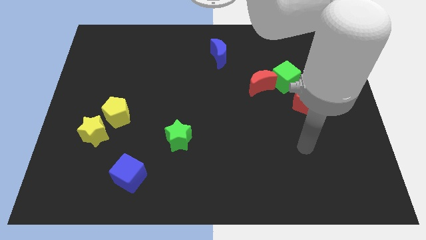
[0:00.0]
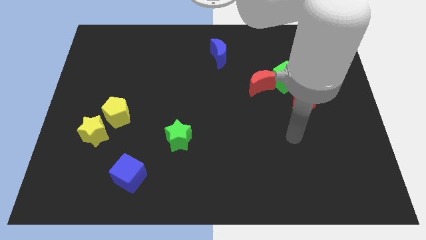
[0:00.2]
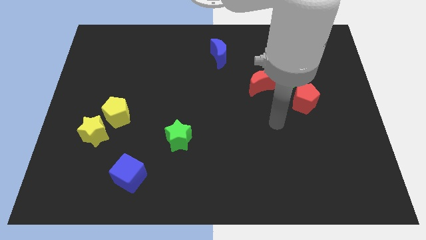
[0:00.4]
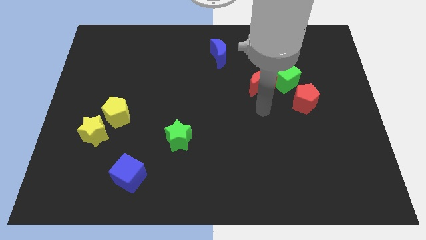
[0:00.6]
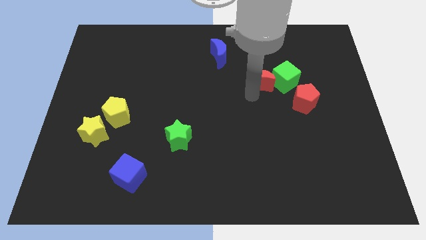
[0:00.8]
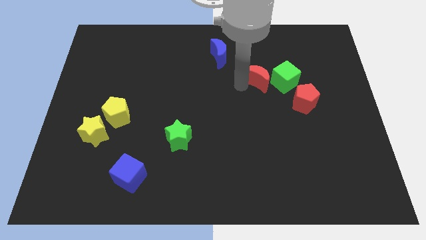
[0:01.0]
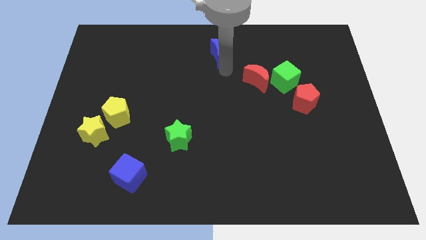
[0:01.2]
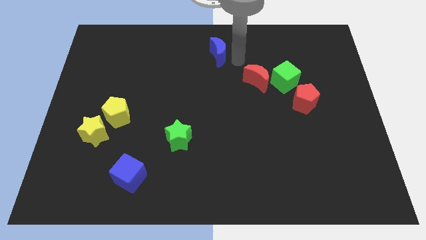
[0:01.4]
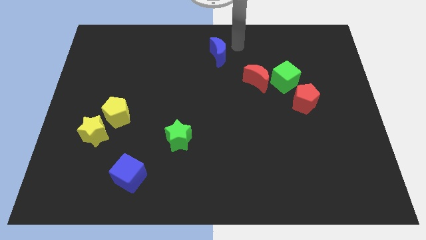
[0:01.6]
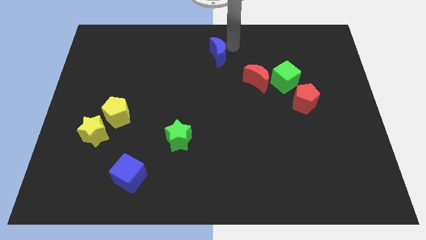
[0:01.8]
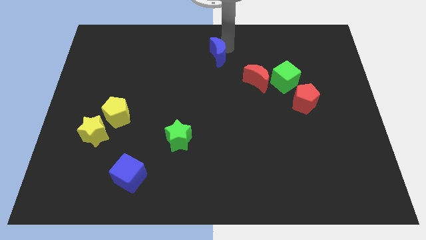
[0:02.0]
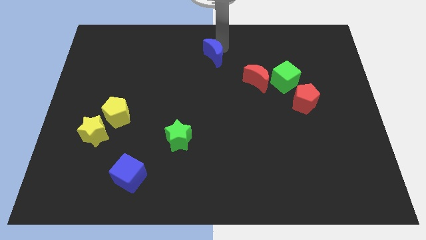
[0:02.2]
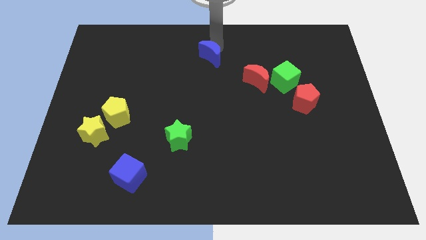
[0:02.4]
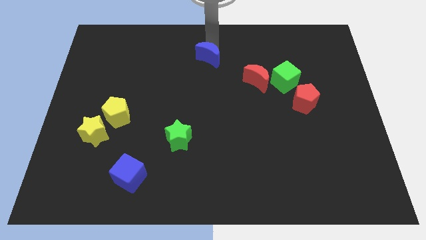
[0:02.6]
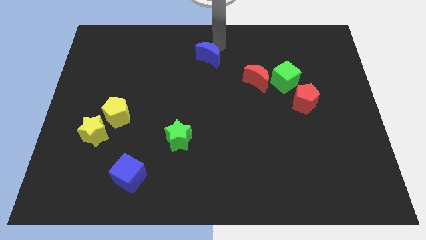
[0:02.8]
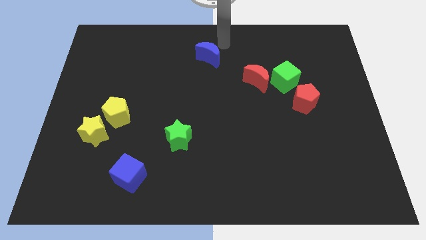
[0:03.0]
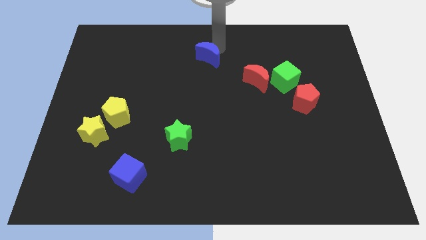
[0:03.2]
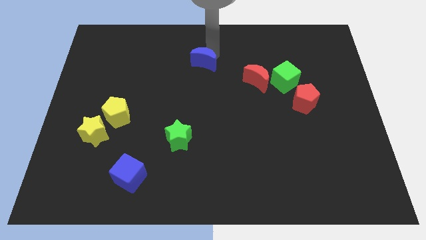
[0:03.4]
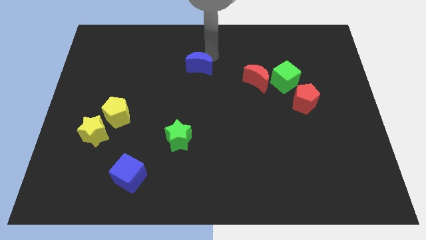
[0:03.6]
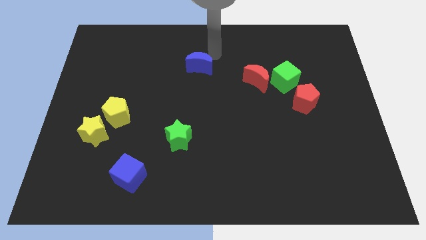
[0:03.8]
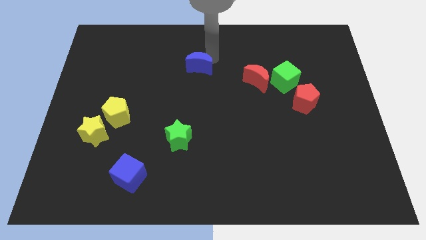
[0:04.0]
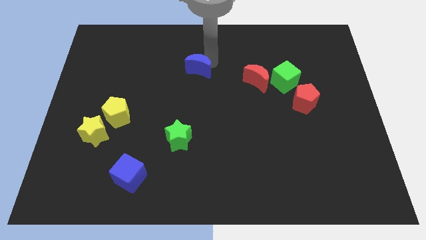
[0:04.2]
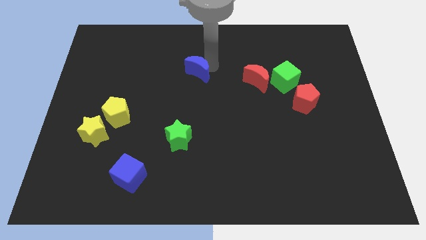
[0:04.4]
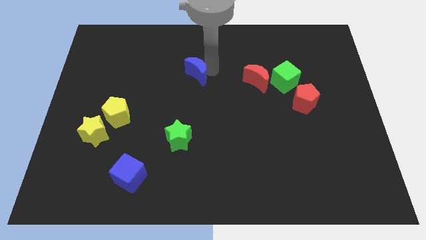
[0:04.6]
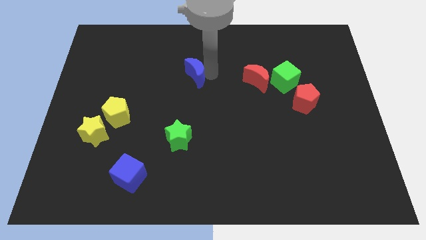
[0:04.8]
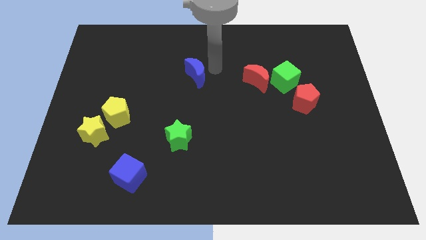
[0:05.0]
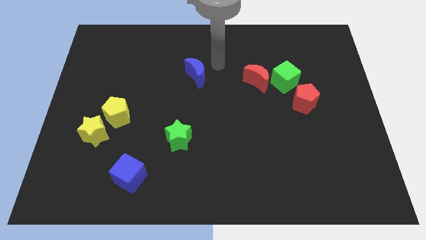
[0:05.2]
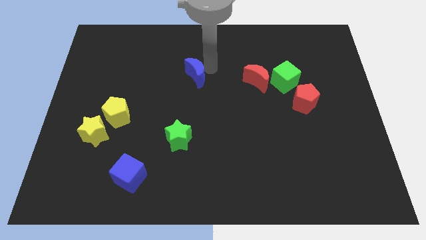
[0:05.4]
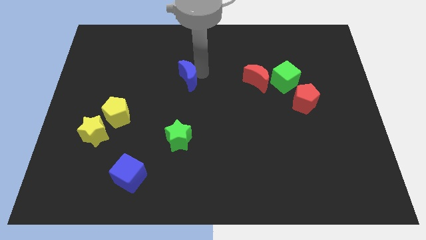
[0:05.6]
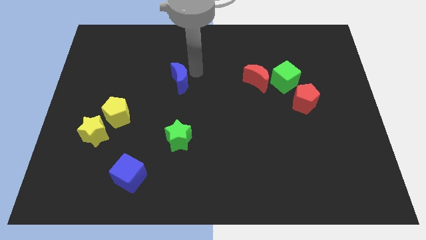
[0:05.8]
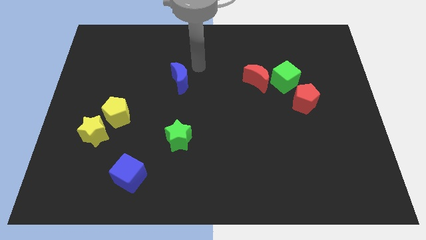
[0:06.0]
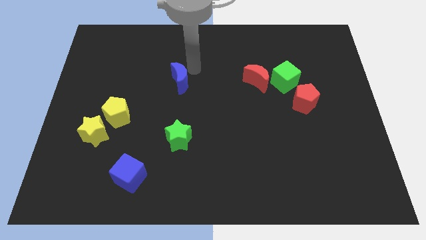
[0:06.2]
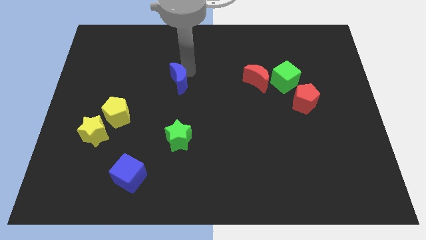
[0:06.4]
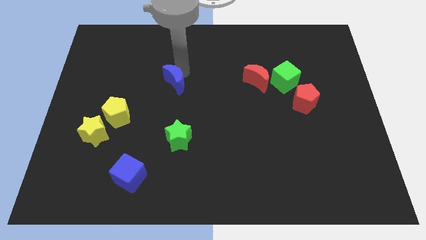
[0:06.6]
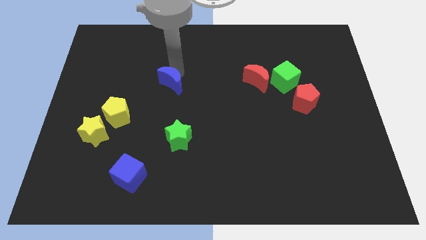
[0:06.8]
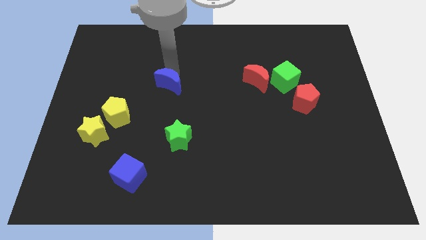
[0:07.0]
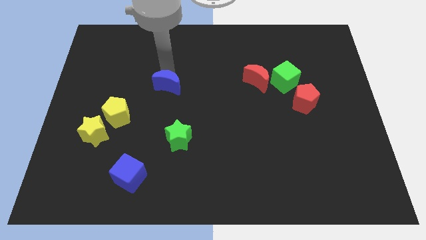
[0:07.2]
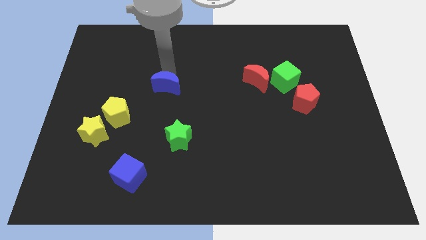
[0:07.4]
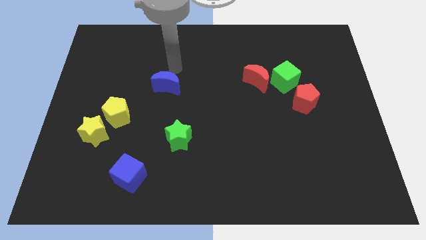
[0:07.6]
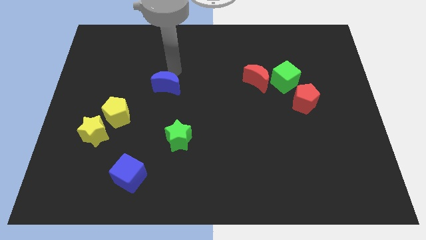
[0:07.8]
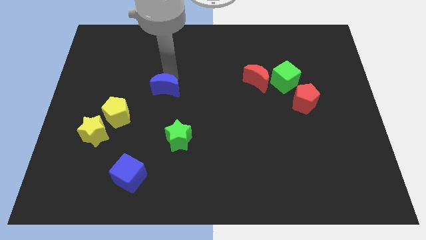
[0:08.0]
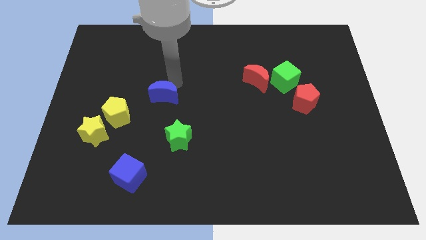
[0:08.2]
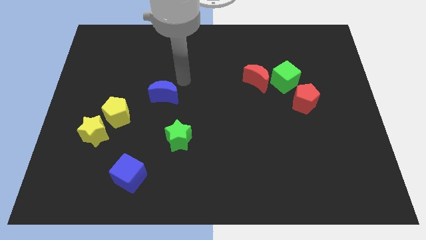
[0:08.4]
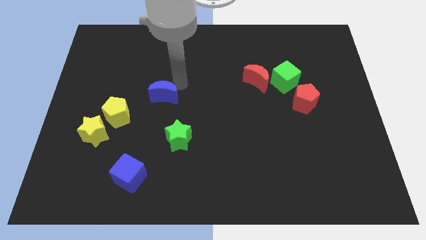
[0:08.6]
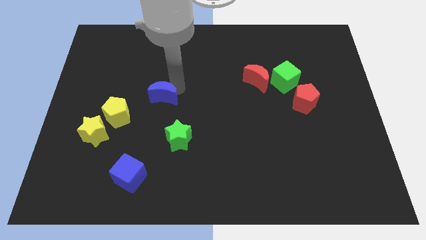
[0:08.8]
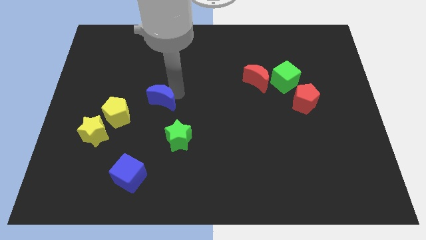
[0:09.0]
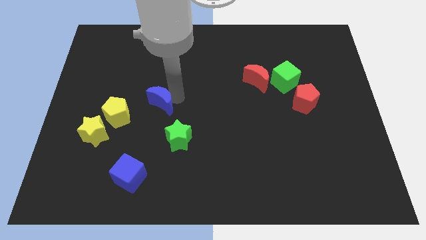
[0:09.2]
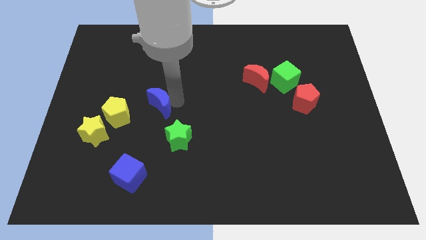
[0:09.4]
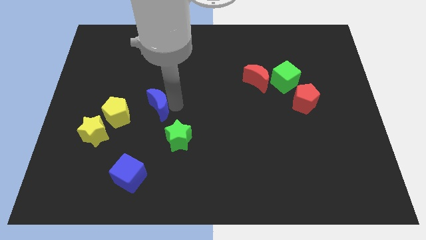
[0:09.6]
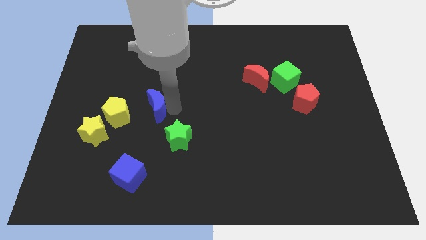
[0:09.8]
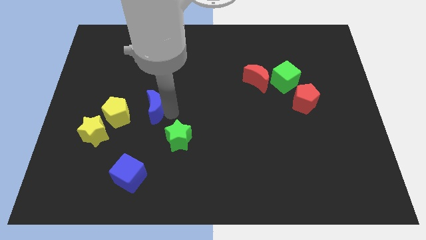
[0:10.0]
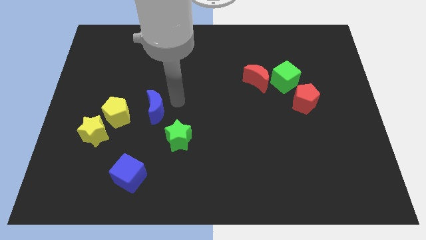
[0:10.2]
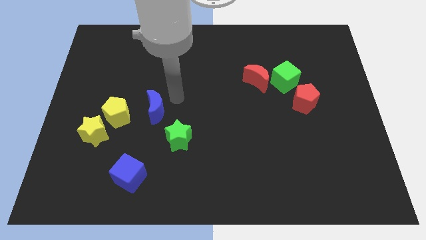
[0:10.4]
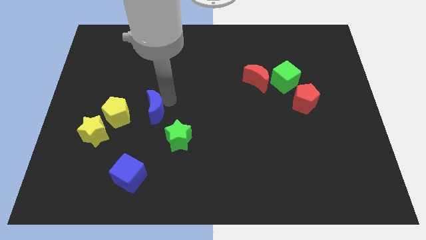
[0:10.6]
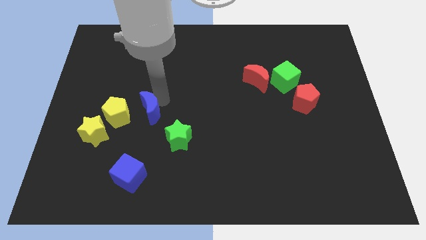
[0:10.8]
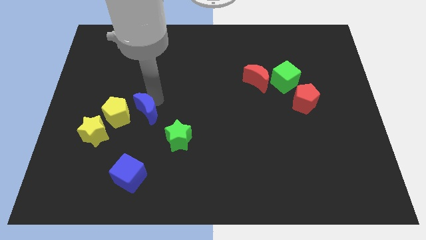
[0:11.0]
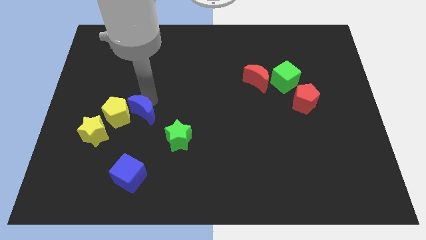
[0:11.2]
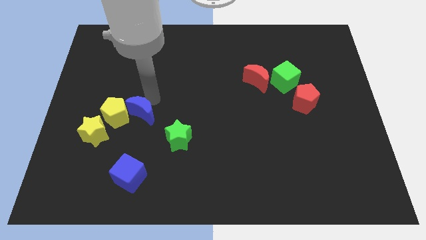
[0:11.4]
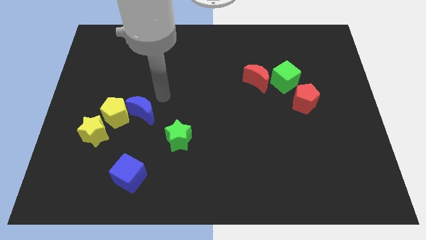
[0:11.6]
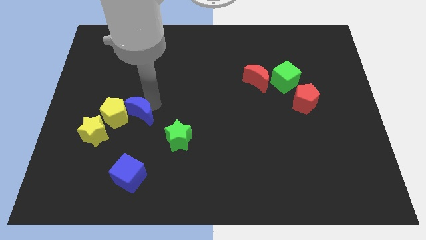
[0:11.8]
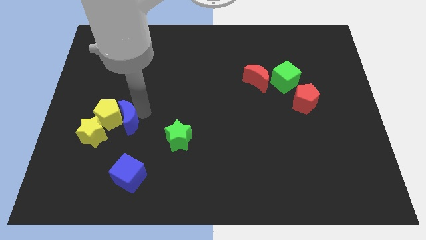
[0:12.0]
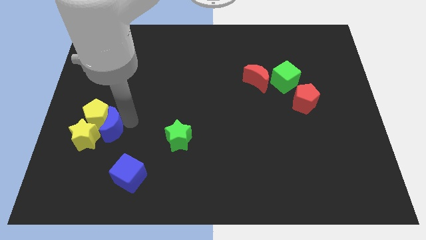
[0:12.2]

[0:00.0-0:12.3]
move the blue moon towards the yellow star

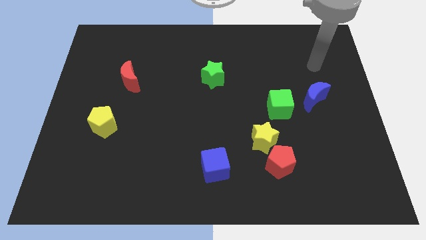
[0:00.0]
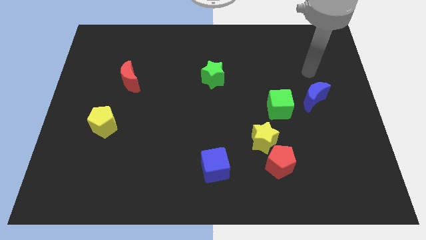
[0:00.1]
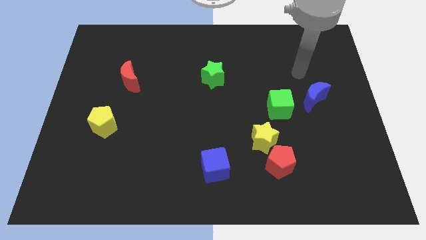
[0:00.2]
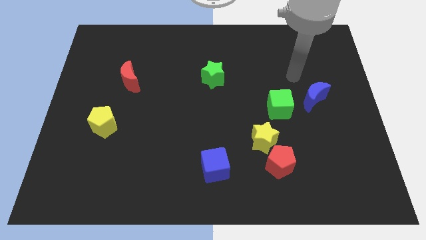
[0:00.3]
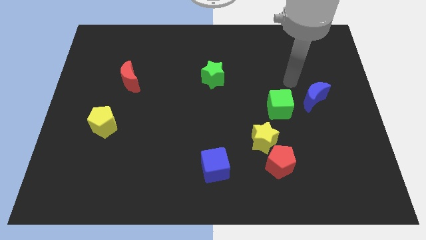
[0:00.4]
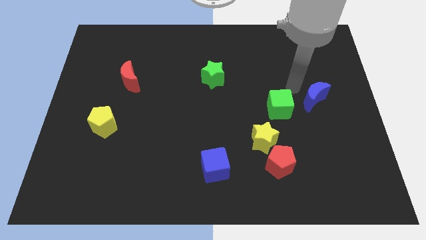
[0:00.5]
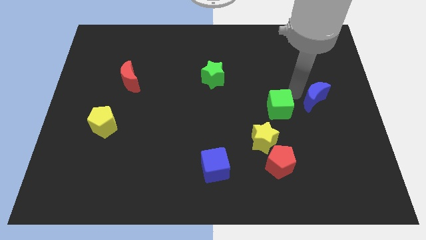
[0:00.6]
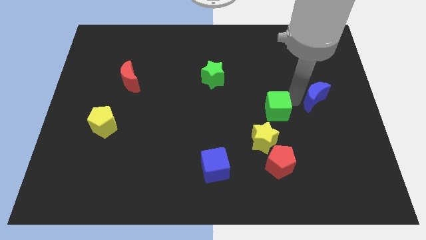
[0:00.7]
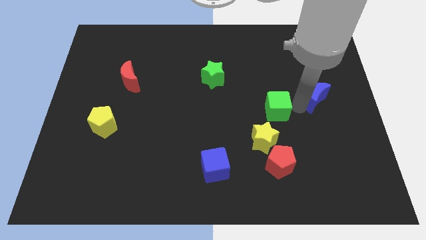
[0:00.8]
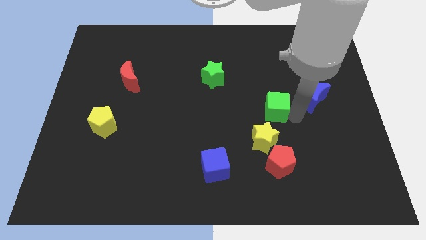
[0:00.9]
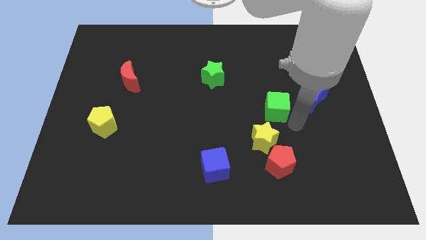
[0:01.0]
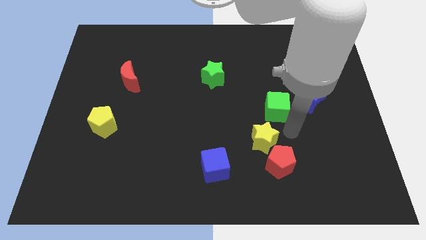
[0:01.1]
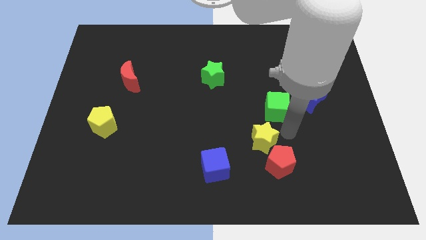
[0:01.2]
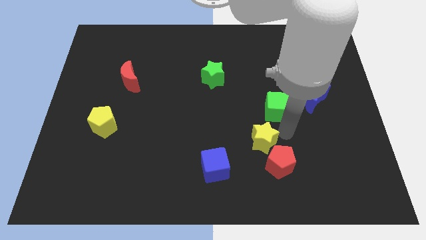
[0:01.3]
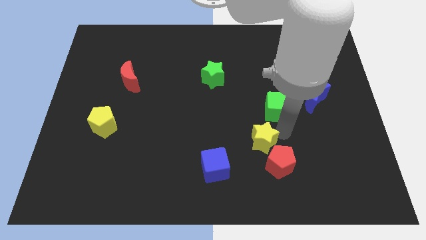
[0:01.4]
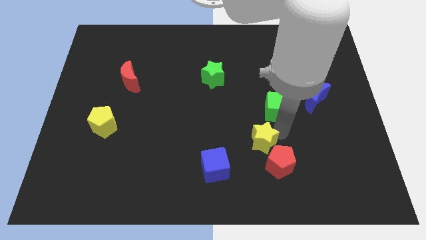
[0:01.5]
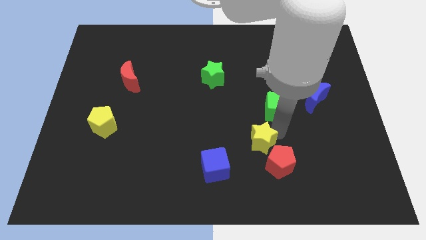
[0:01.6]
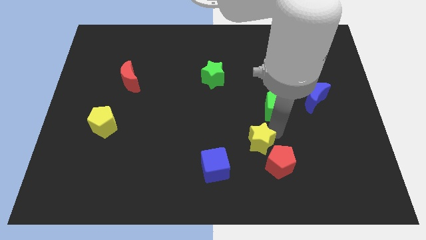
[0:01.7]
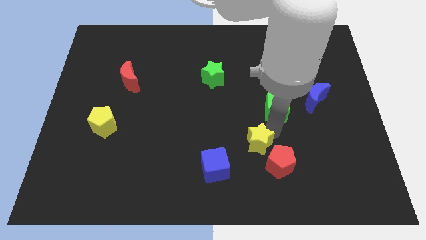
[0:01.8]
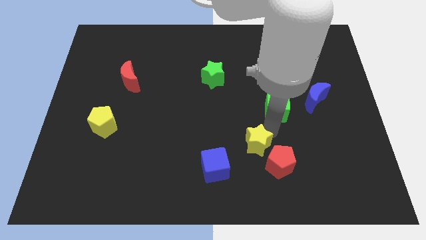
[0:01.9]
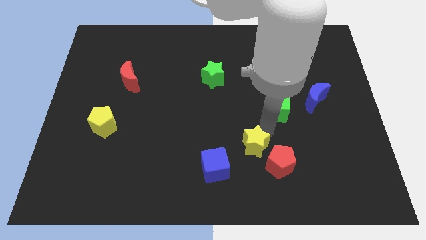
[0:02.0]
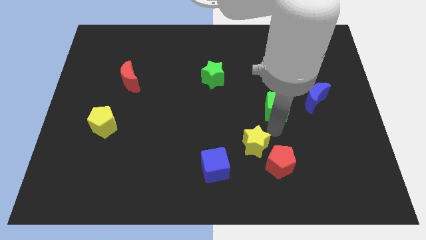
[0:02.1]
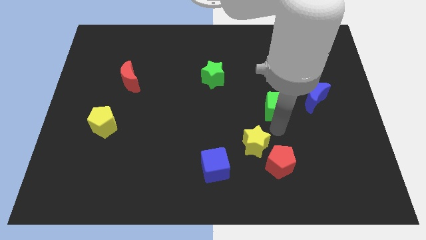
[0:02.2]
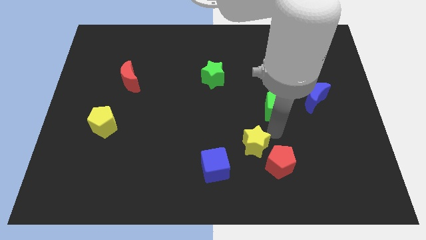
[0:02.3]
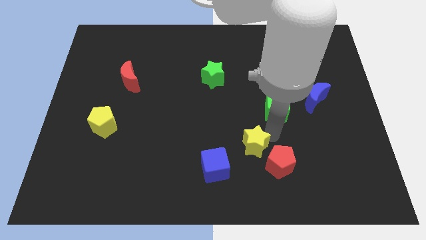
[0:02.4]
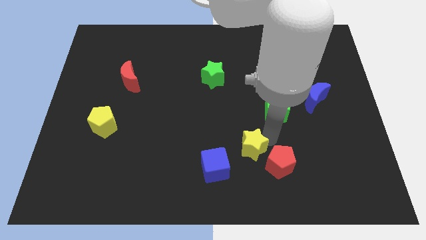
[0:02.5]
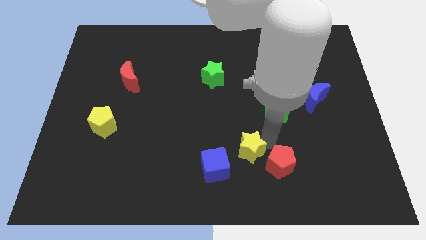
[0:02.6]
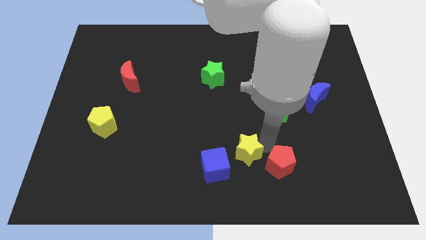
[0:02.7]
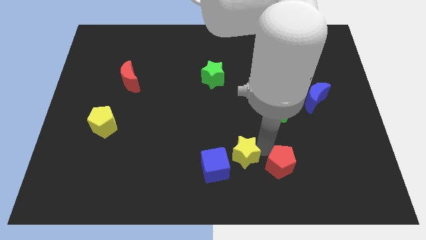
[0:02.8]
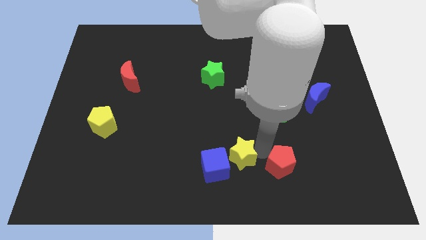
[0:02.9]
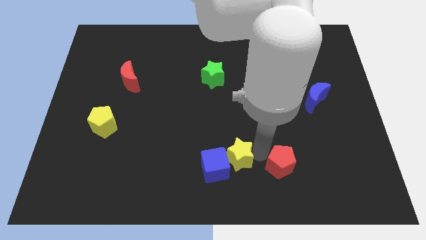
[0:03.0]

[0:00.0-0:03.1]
push the yellow star close to the blue cube
